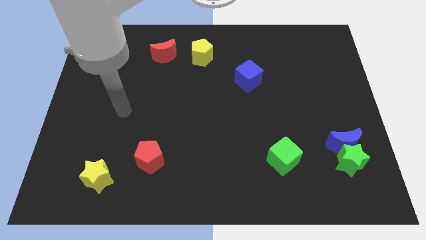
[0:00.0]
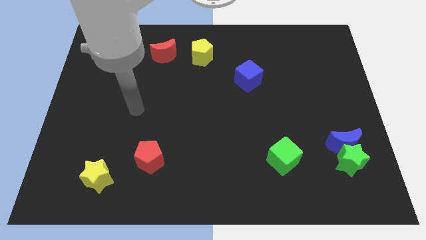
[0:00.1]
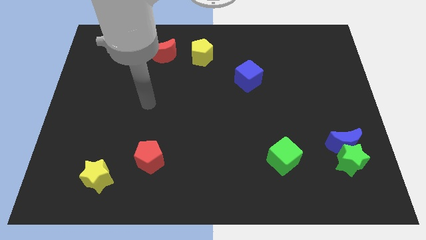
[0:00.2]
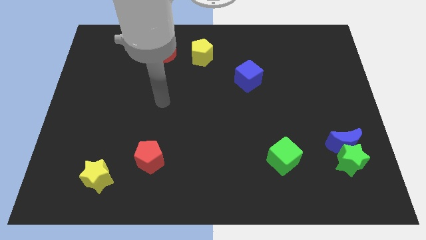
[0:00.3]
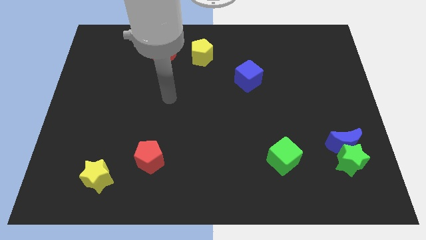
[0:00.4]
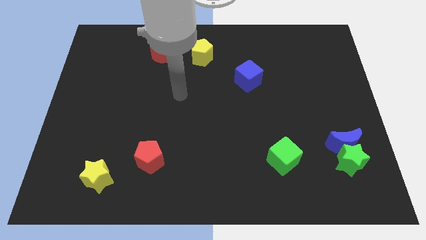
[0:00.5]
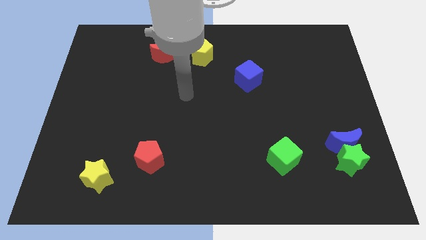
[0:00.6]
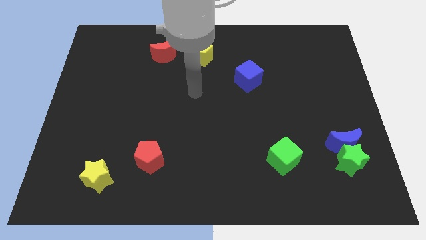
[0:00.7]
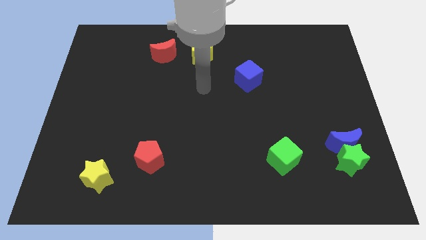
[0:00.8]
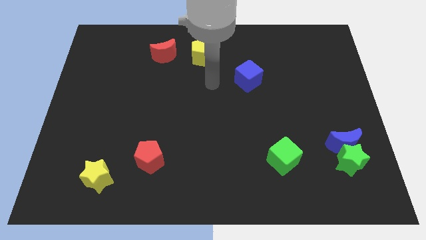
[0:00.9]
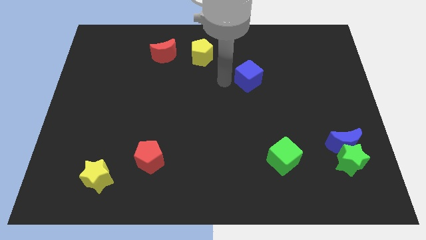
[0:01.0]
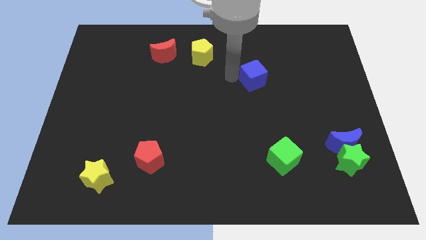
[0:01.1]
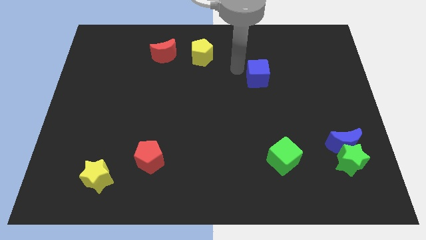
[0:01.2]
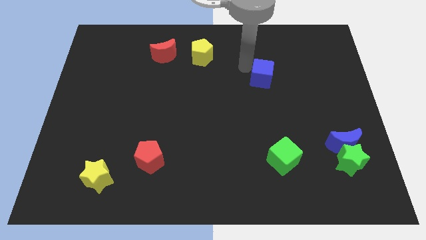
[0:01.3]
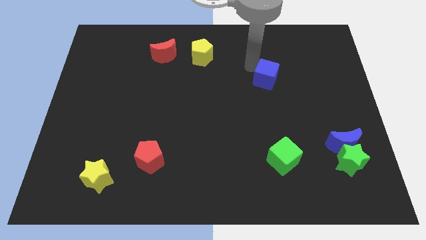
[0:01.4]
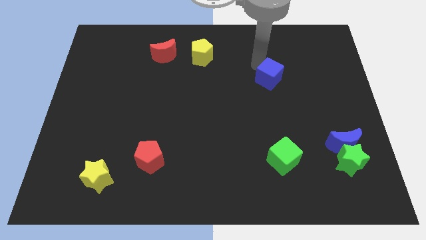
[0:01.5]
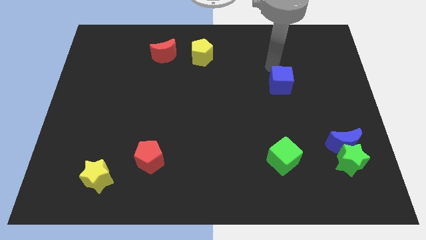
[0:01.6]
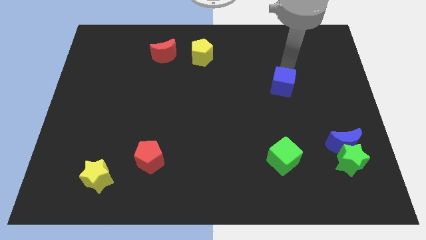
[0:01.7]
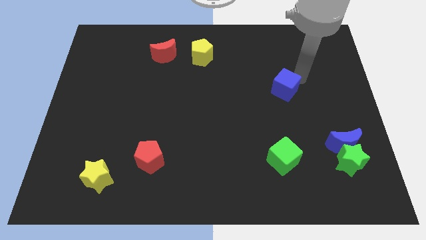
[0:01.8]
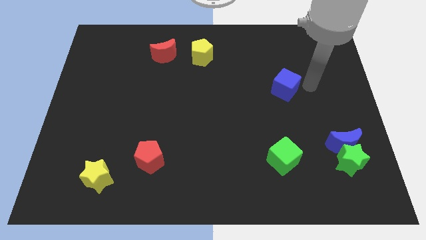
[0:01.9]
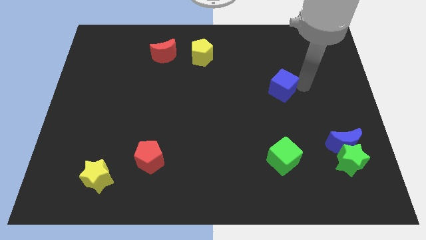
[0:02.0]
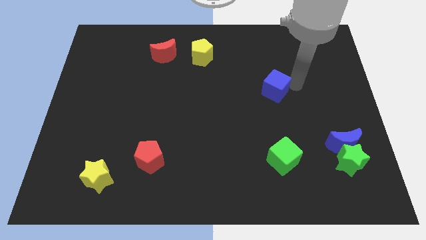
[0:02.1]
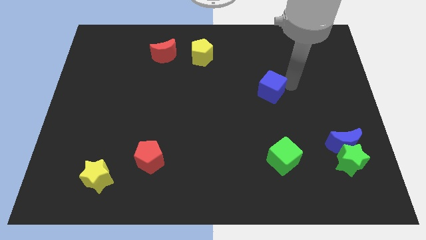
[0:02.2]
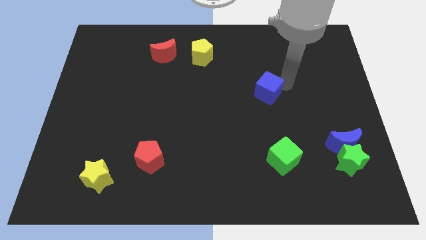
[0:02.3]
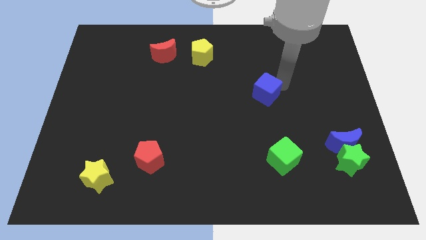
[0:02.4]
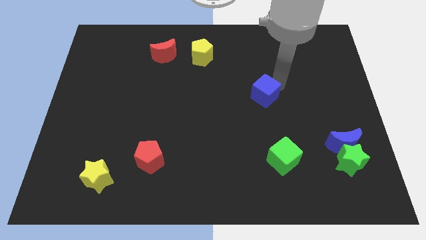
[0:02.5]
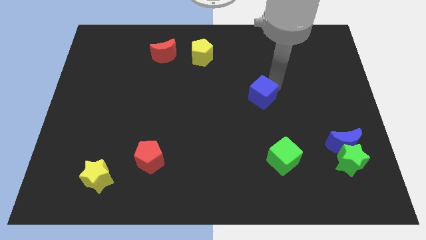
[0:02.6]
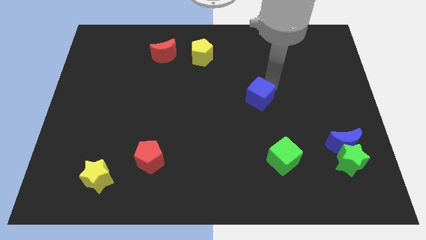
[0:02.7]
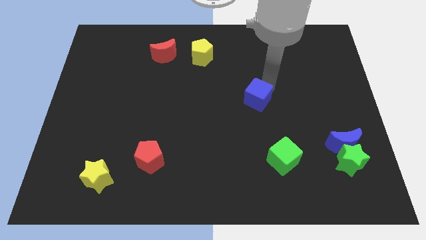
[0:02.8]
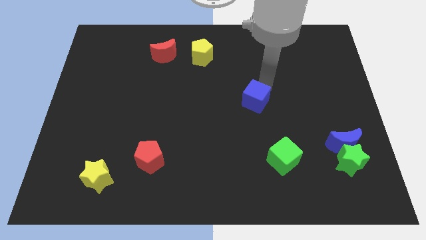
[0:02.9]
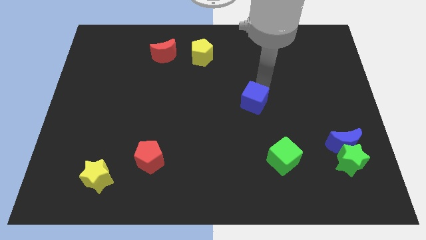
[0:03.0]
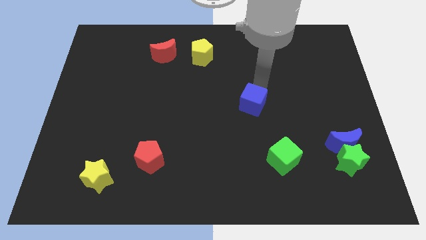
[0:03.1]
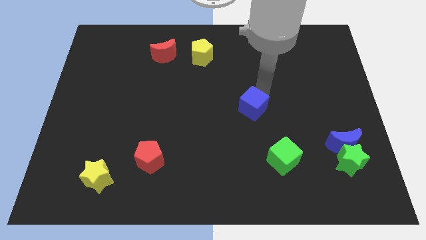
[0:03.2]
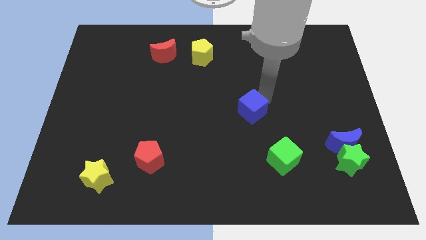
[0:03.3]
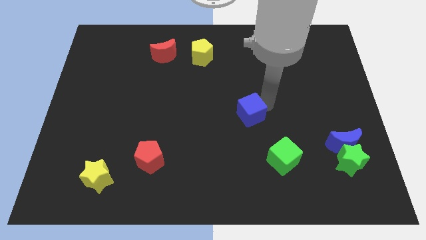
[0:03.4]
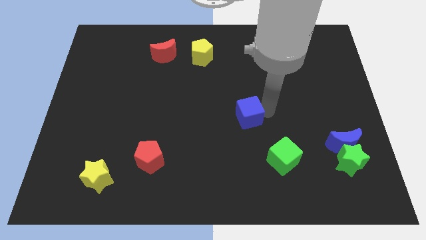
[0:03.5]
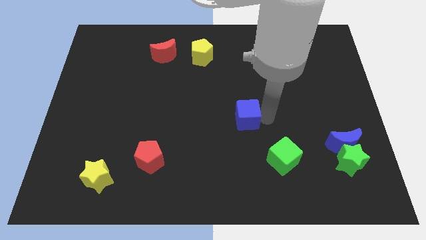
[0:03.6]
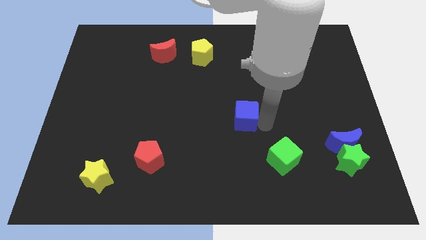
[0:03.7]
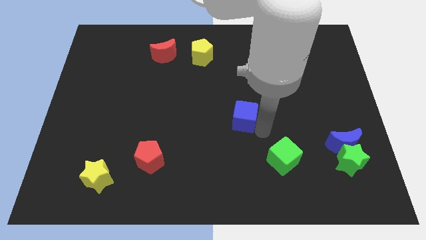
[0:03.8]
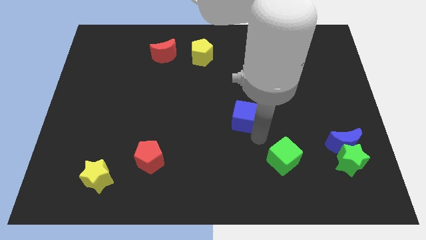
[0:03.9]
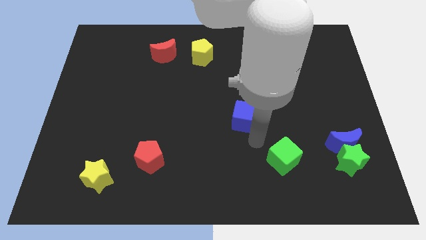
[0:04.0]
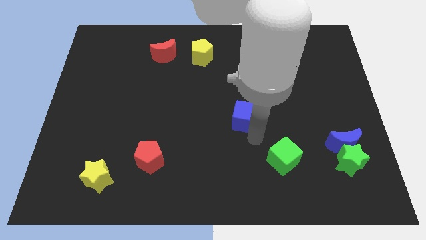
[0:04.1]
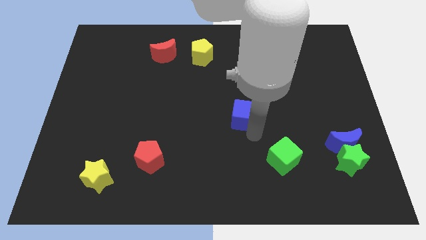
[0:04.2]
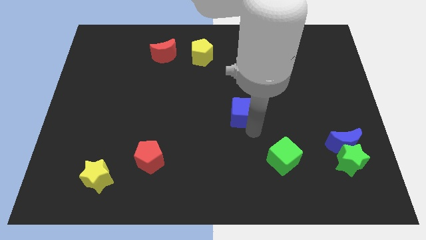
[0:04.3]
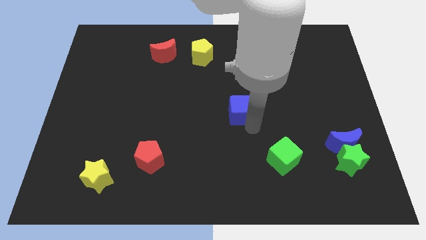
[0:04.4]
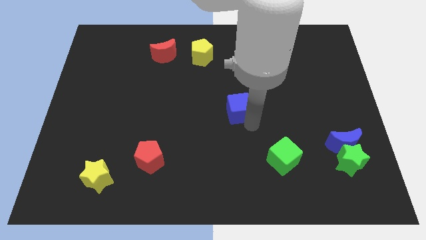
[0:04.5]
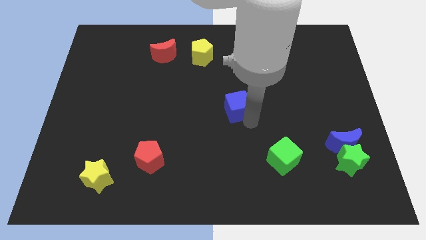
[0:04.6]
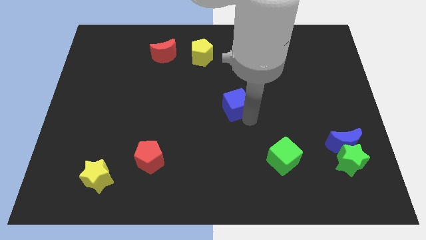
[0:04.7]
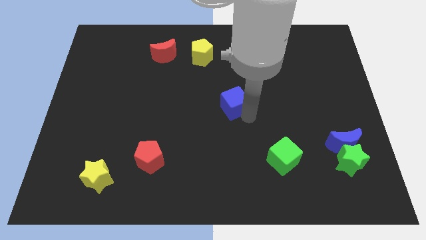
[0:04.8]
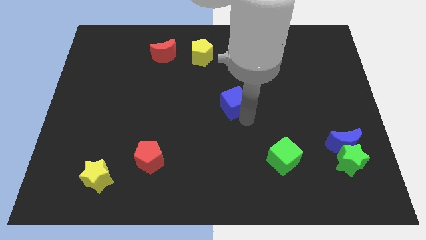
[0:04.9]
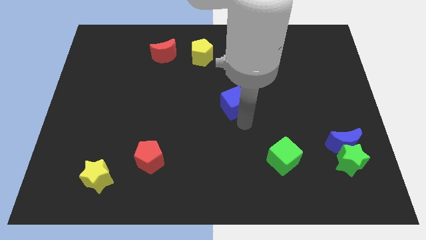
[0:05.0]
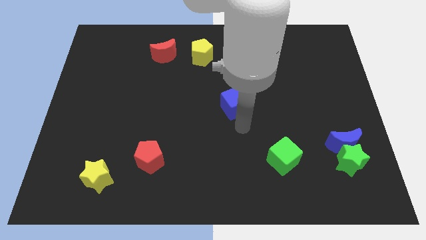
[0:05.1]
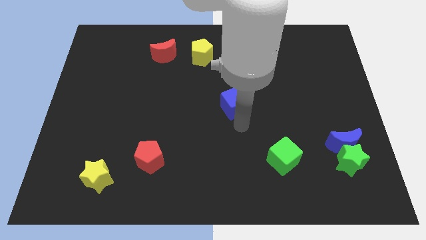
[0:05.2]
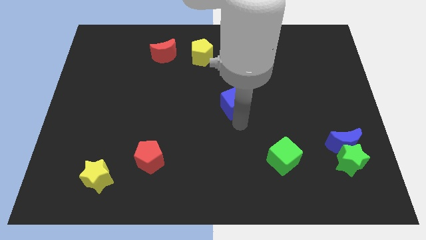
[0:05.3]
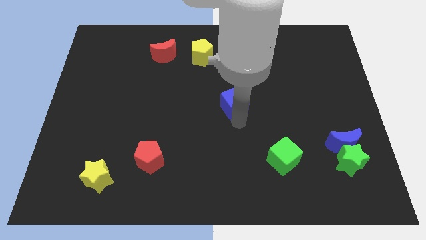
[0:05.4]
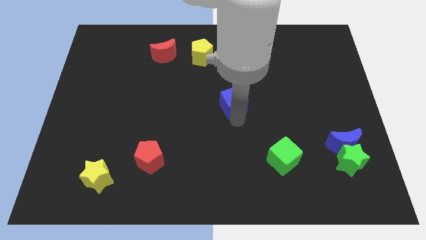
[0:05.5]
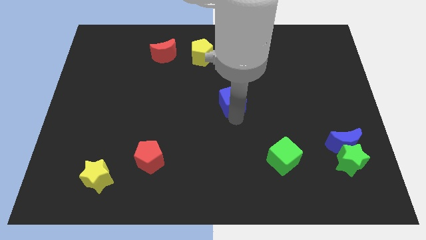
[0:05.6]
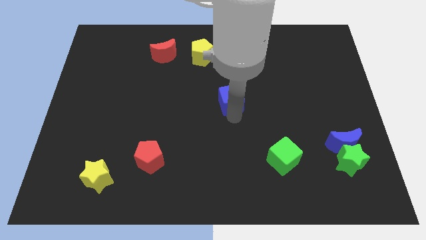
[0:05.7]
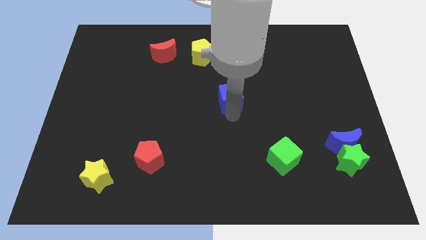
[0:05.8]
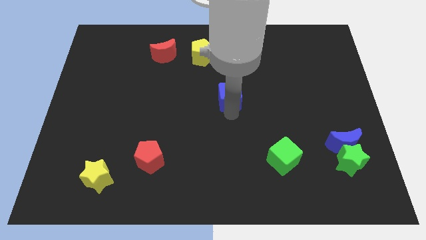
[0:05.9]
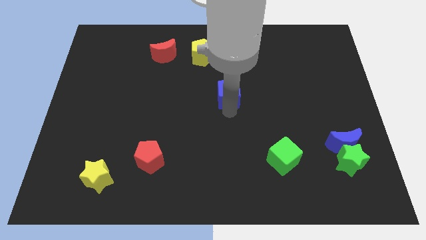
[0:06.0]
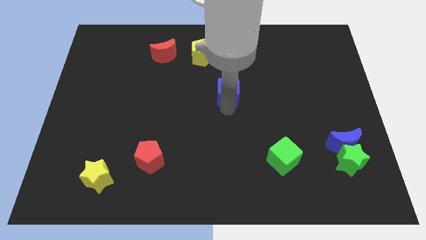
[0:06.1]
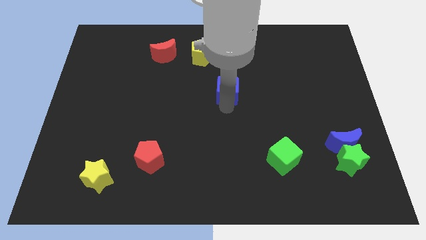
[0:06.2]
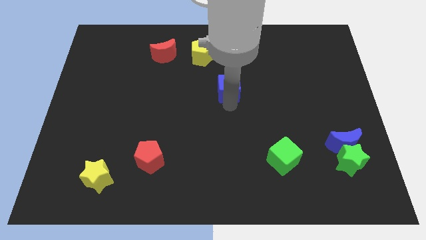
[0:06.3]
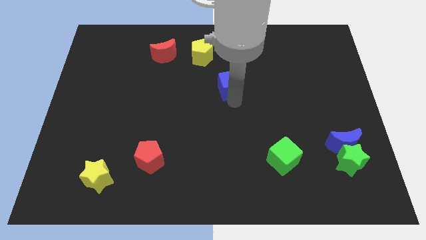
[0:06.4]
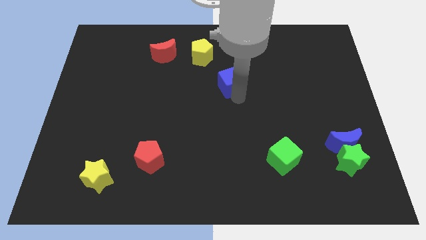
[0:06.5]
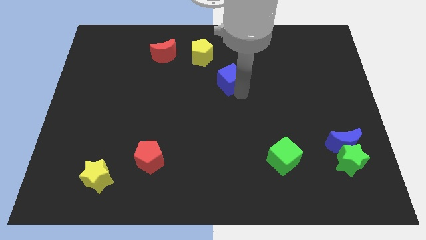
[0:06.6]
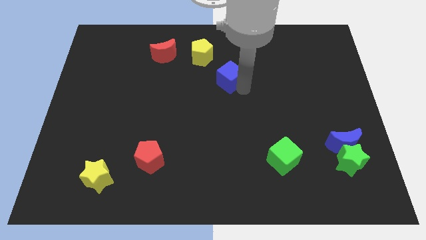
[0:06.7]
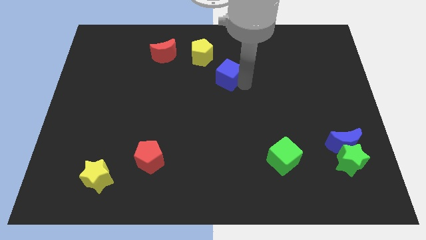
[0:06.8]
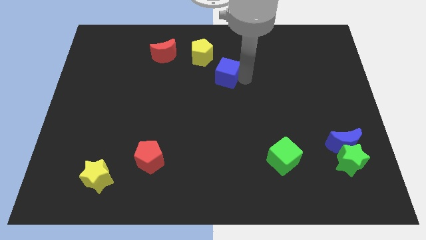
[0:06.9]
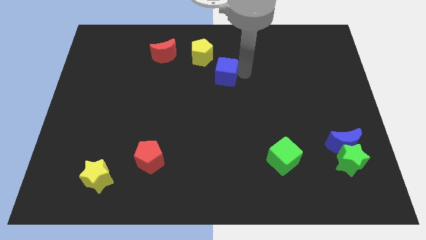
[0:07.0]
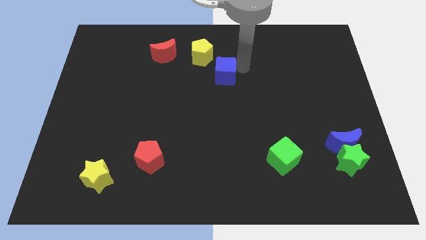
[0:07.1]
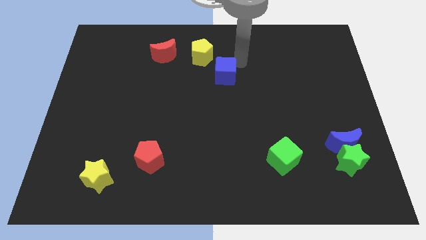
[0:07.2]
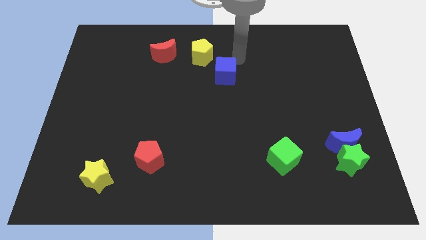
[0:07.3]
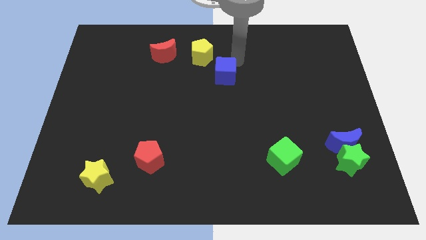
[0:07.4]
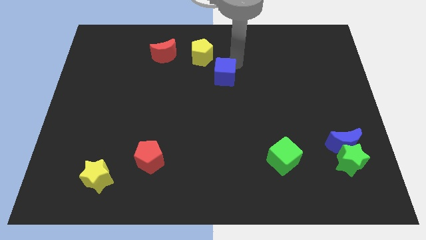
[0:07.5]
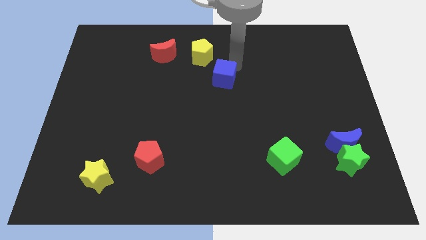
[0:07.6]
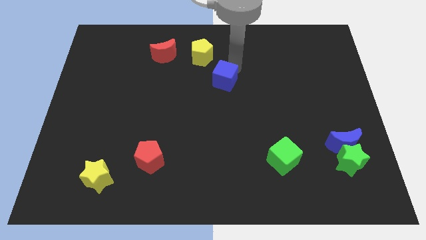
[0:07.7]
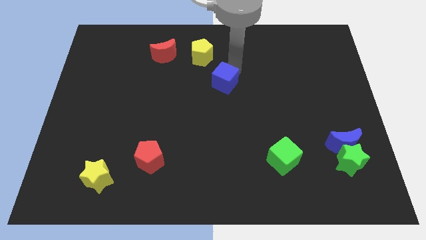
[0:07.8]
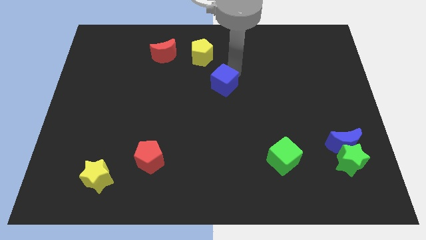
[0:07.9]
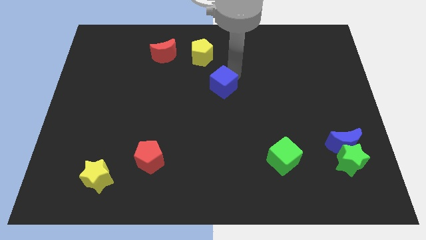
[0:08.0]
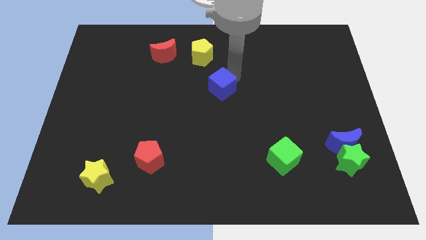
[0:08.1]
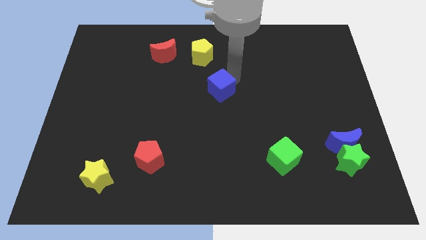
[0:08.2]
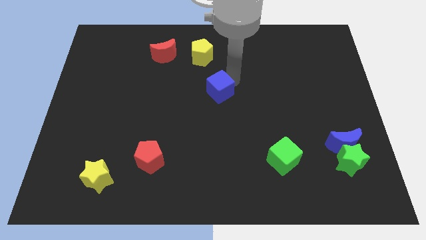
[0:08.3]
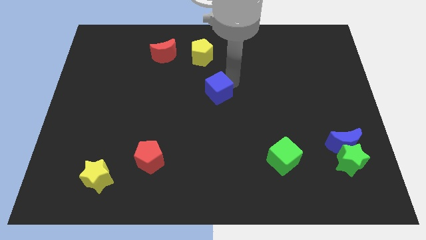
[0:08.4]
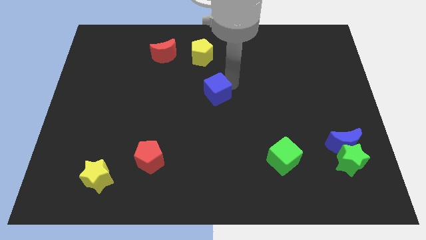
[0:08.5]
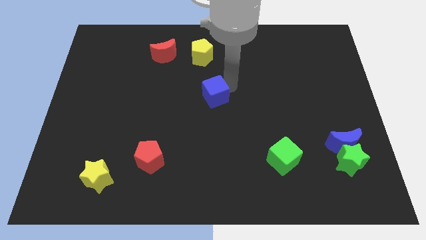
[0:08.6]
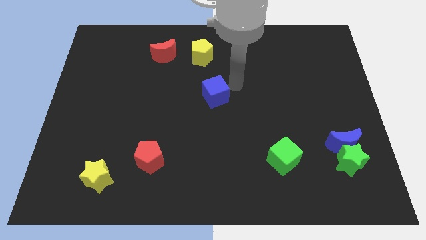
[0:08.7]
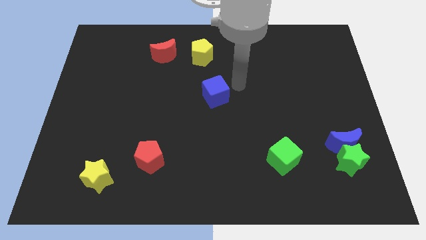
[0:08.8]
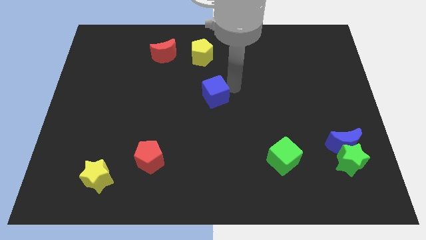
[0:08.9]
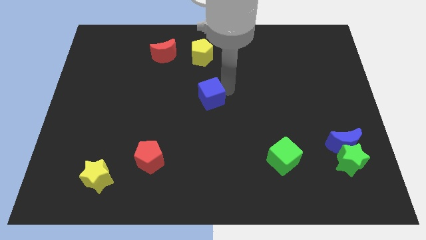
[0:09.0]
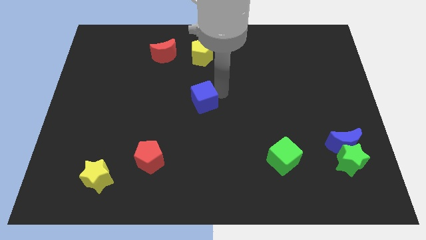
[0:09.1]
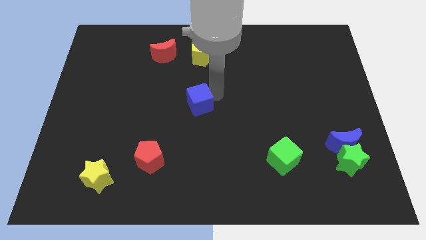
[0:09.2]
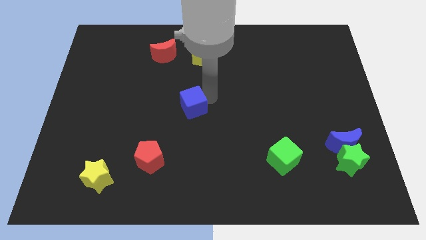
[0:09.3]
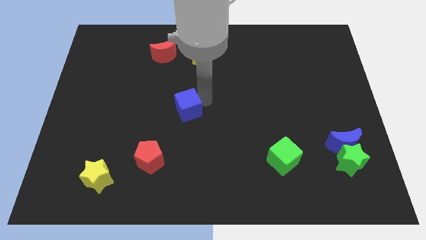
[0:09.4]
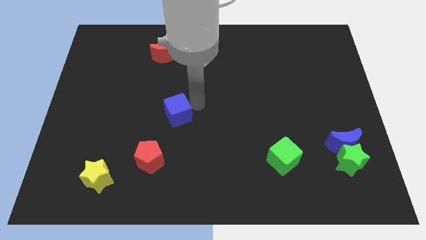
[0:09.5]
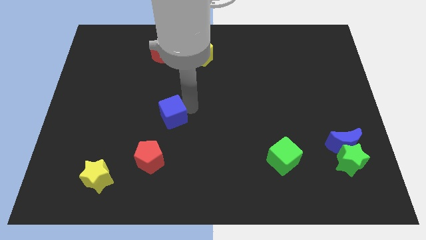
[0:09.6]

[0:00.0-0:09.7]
put the blue cube to the top of the red pentagon
